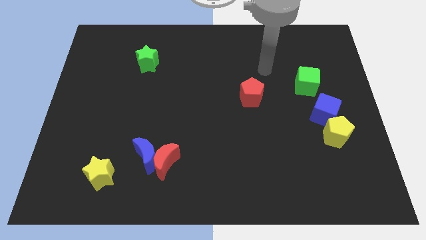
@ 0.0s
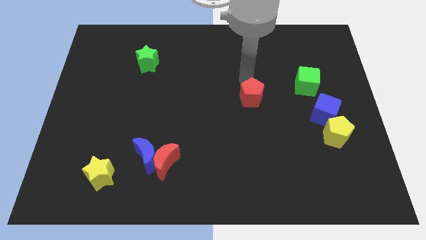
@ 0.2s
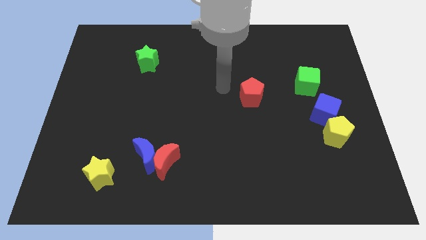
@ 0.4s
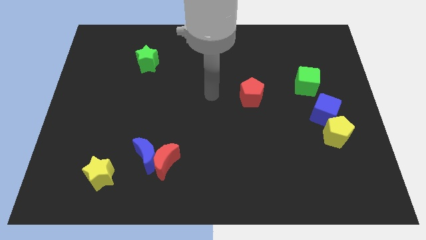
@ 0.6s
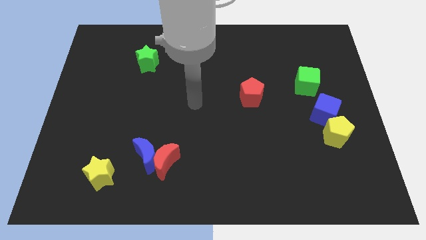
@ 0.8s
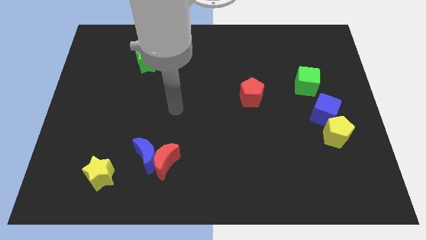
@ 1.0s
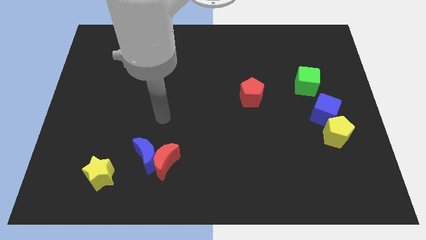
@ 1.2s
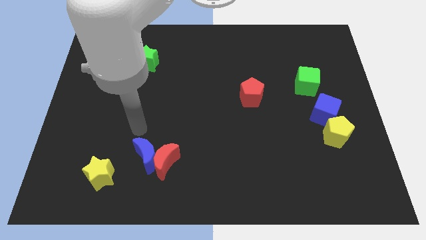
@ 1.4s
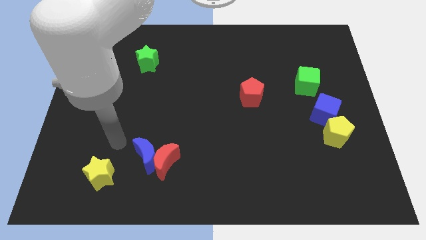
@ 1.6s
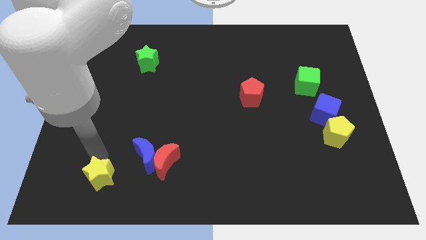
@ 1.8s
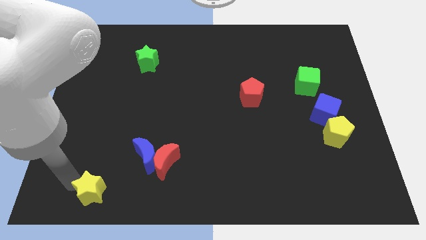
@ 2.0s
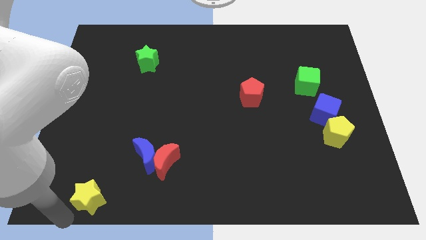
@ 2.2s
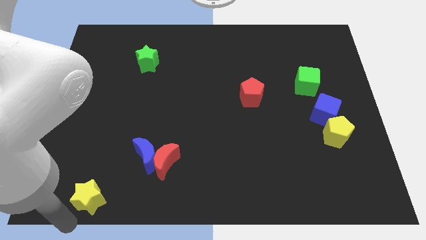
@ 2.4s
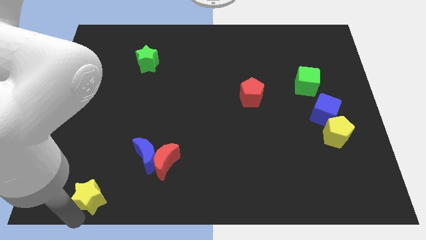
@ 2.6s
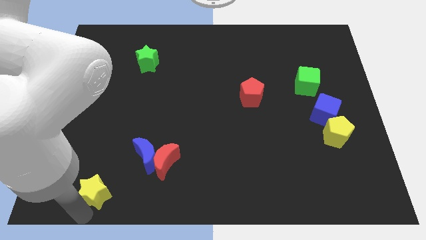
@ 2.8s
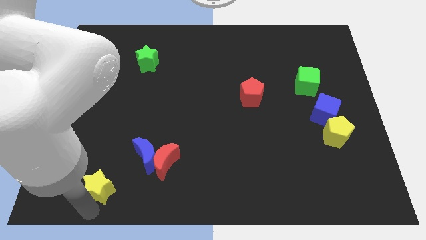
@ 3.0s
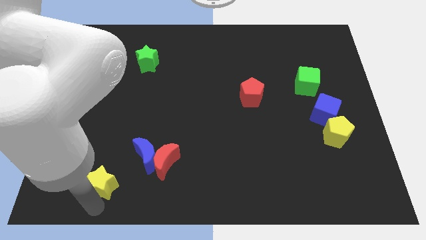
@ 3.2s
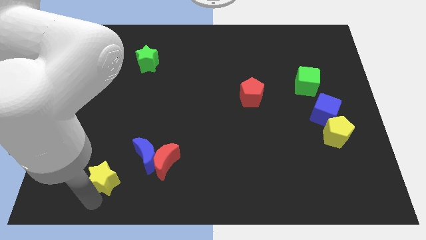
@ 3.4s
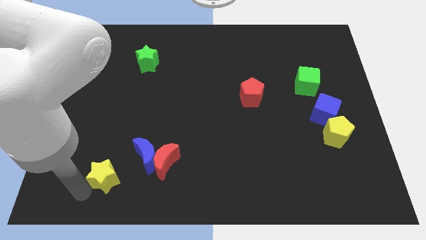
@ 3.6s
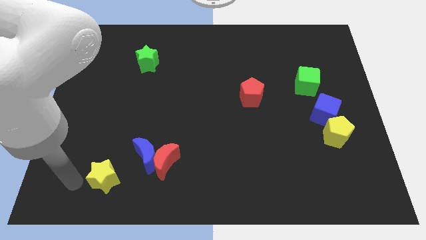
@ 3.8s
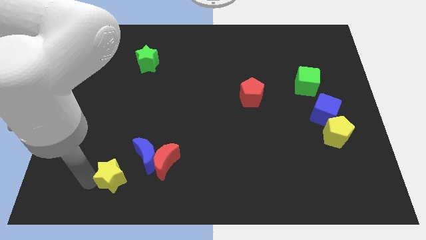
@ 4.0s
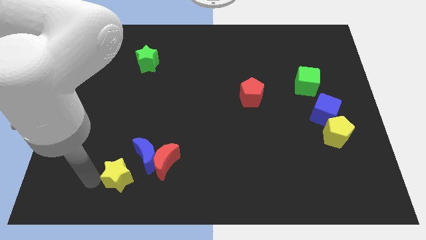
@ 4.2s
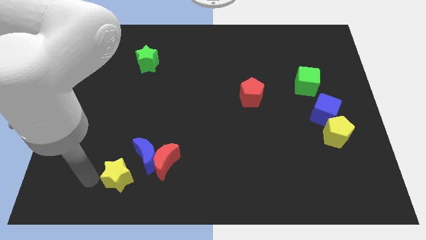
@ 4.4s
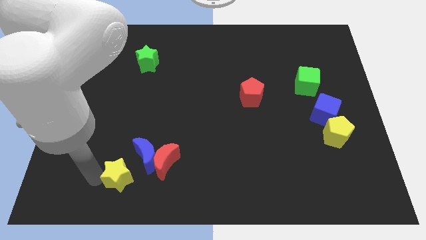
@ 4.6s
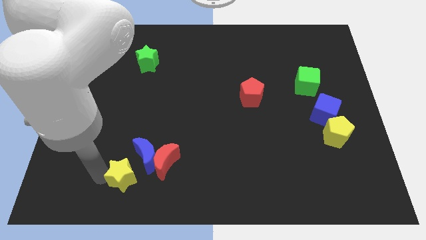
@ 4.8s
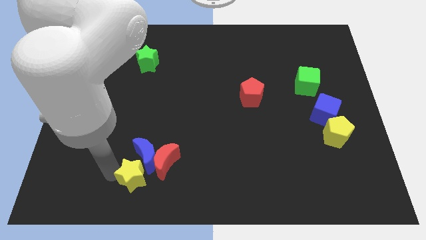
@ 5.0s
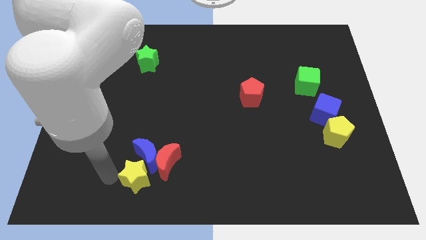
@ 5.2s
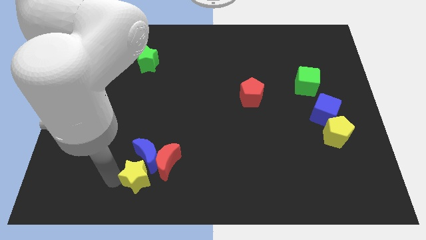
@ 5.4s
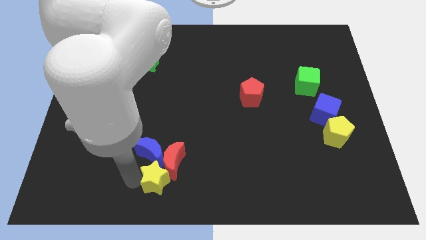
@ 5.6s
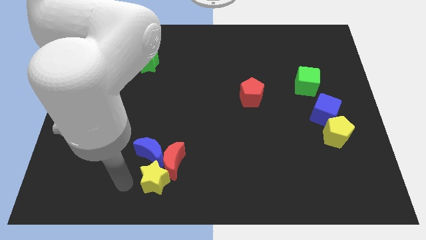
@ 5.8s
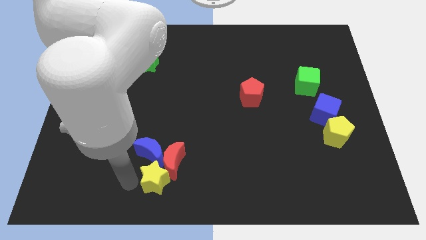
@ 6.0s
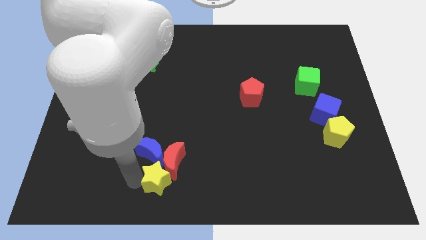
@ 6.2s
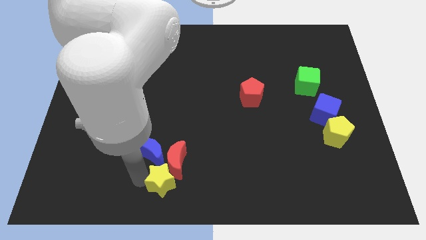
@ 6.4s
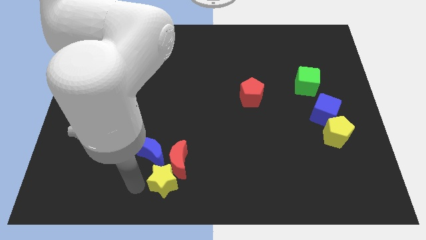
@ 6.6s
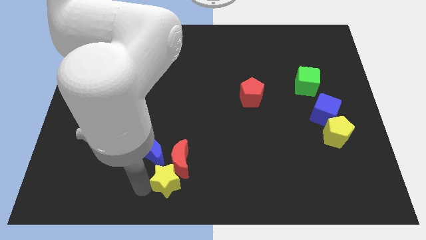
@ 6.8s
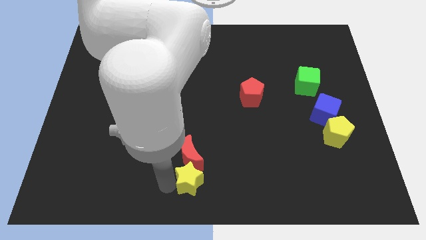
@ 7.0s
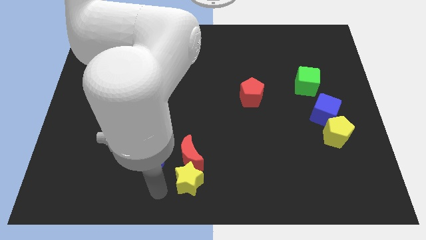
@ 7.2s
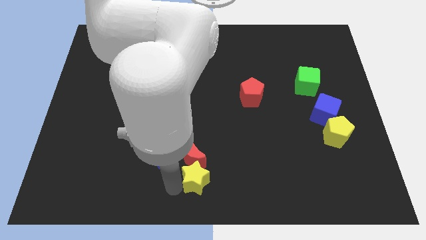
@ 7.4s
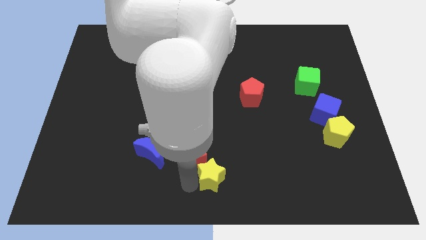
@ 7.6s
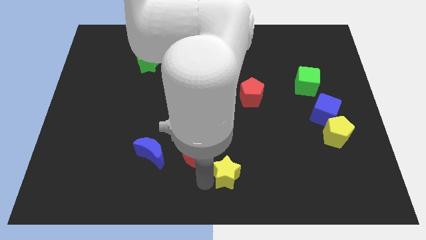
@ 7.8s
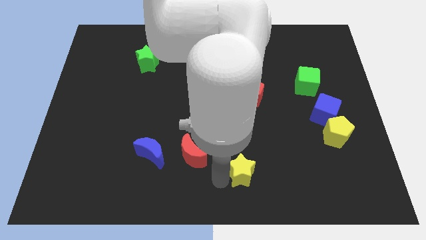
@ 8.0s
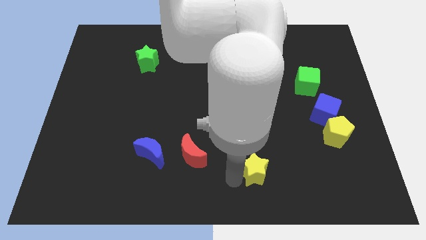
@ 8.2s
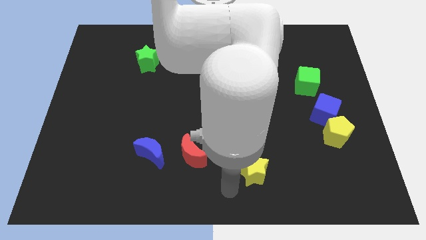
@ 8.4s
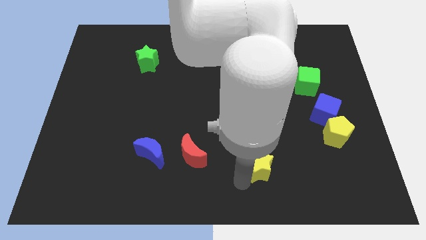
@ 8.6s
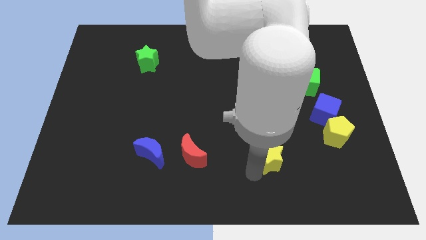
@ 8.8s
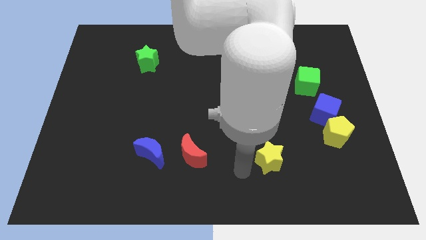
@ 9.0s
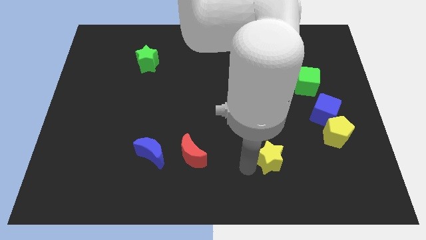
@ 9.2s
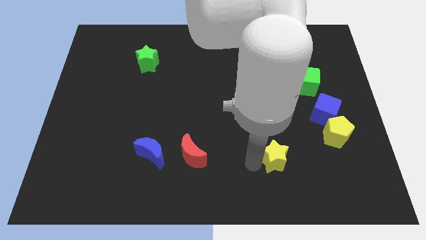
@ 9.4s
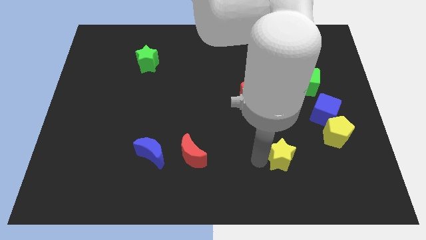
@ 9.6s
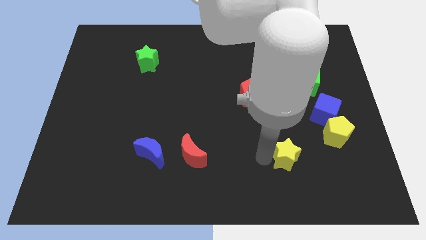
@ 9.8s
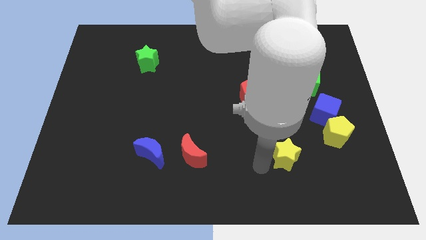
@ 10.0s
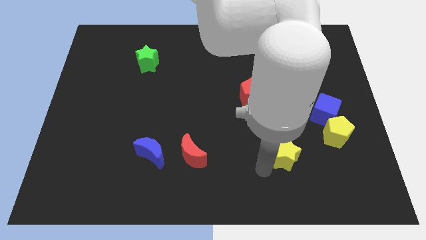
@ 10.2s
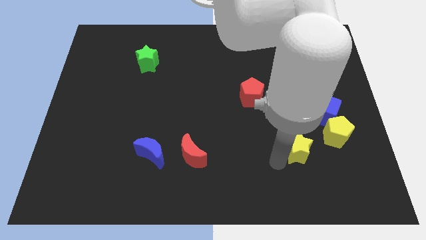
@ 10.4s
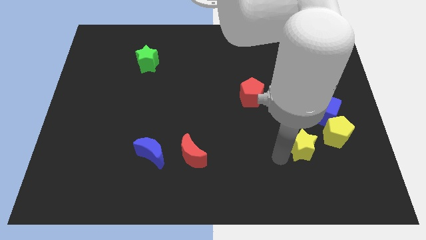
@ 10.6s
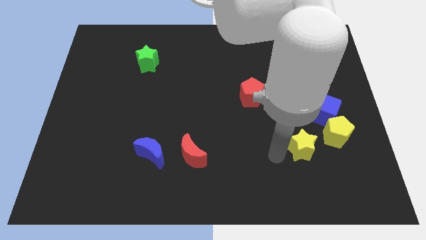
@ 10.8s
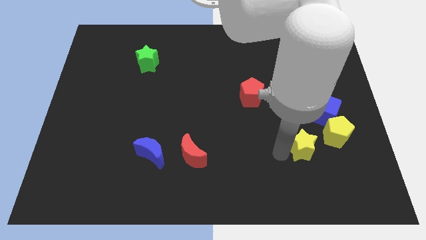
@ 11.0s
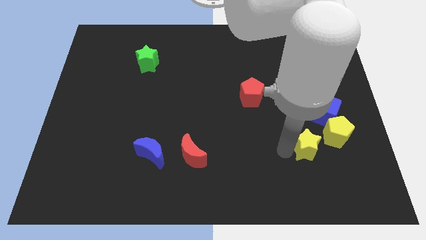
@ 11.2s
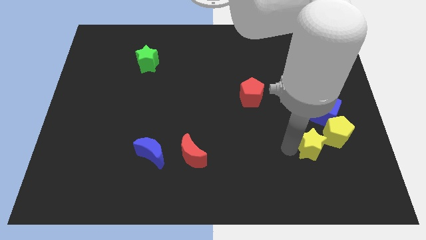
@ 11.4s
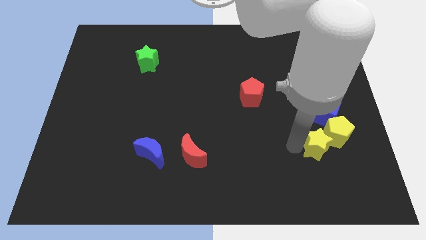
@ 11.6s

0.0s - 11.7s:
put the yellow star close to the yellow pentagon

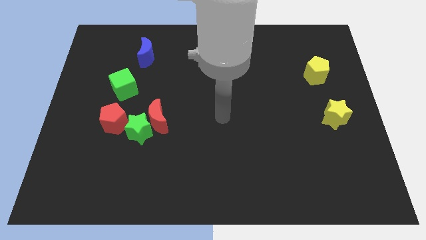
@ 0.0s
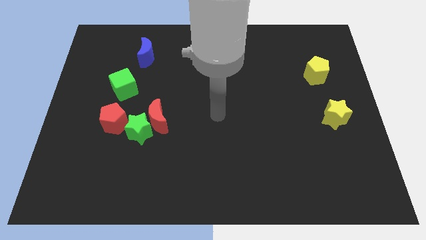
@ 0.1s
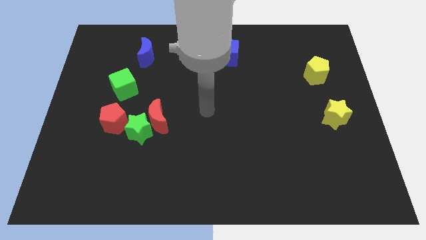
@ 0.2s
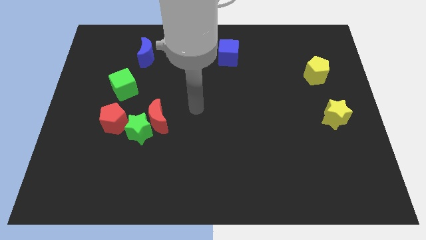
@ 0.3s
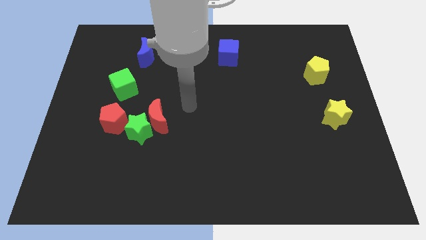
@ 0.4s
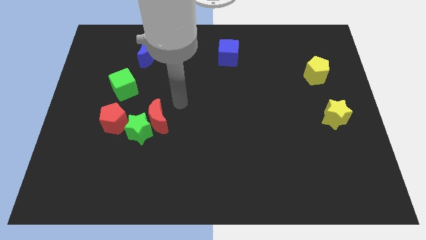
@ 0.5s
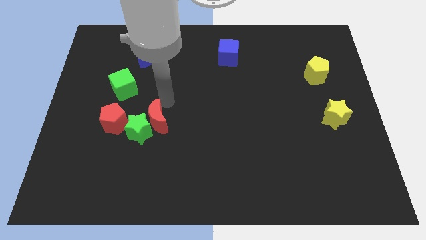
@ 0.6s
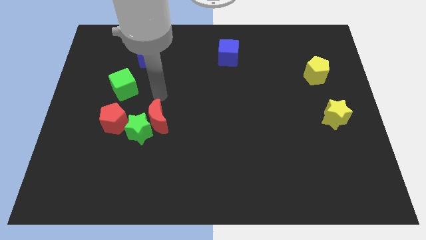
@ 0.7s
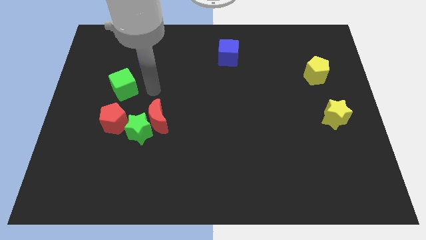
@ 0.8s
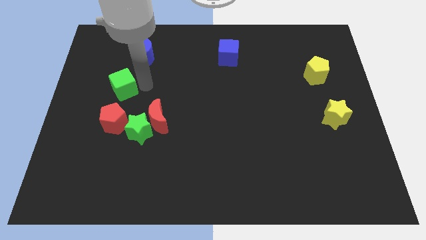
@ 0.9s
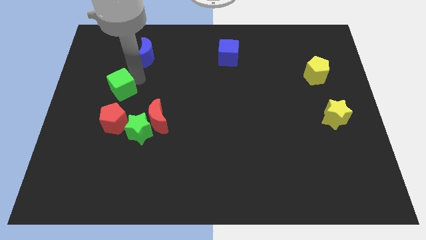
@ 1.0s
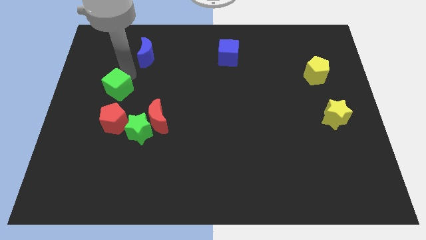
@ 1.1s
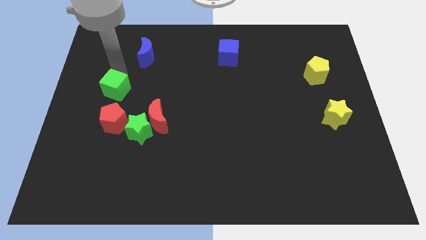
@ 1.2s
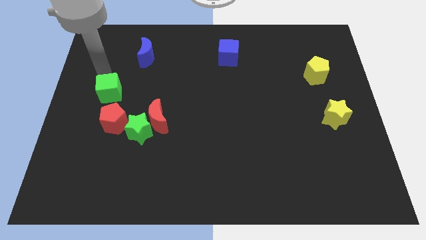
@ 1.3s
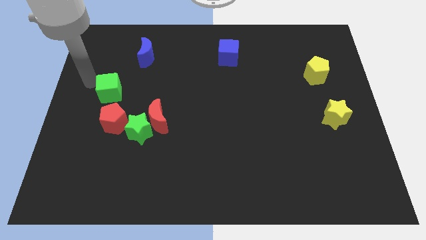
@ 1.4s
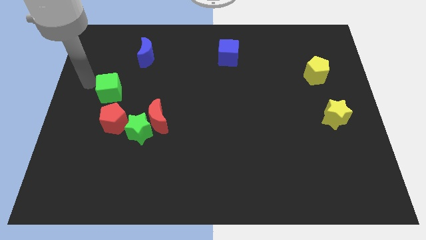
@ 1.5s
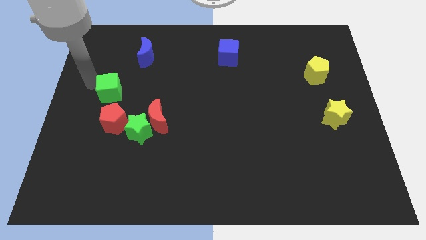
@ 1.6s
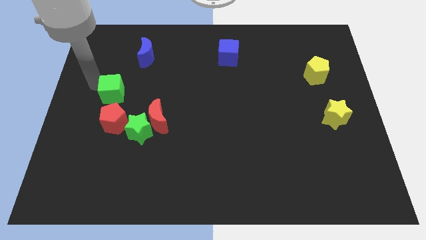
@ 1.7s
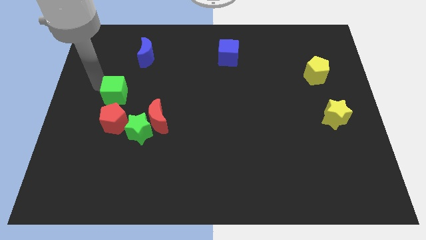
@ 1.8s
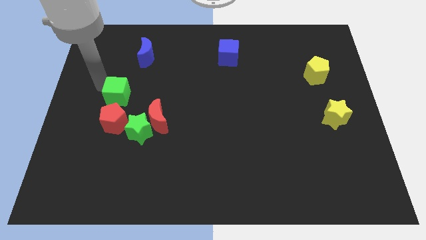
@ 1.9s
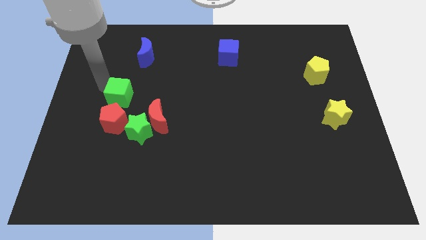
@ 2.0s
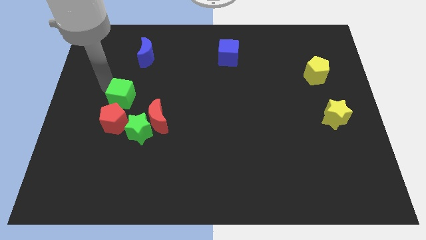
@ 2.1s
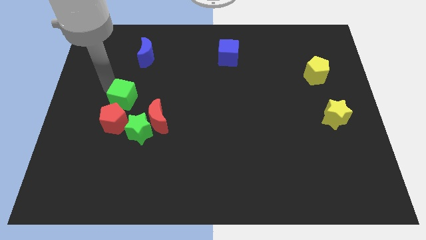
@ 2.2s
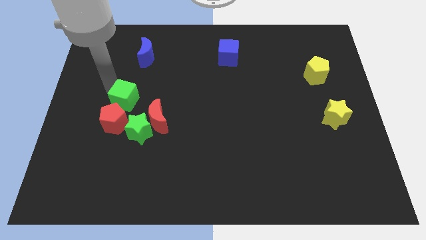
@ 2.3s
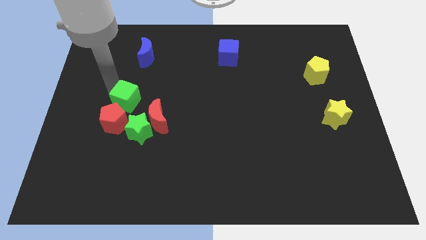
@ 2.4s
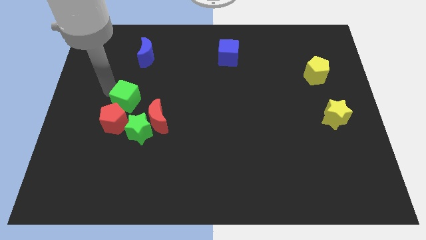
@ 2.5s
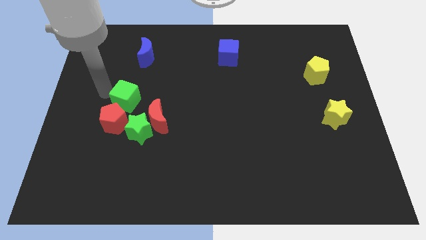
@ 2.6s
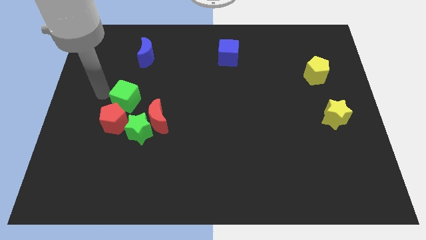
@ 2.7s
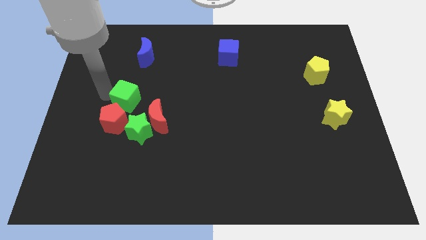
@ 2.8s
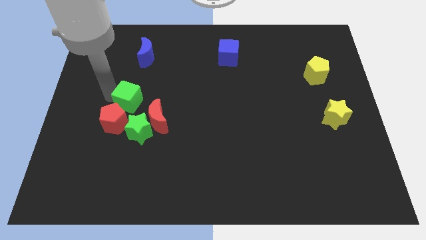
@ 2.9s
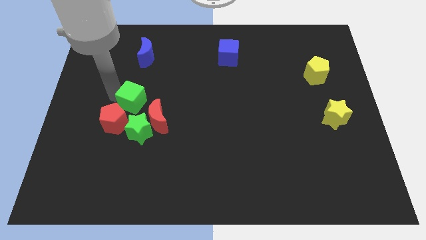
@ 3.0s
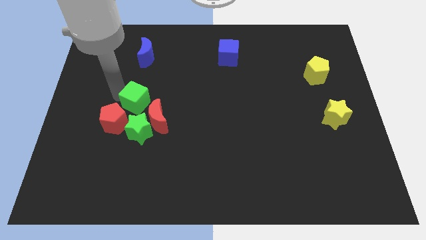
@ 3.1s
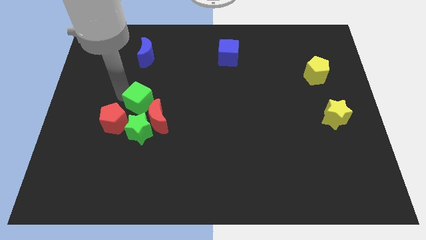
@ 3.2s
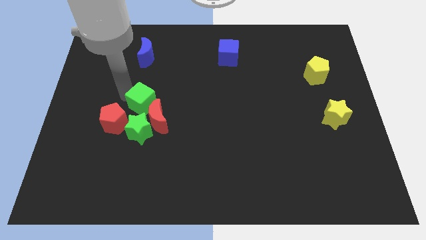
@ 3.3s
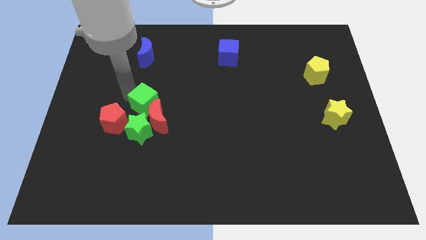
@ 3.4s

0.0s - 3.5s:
slide the green cube next to the red moon
